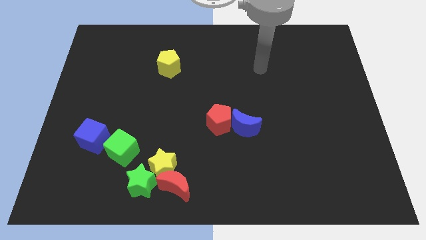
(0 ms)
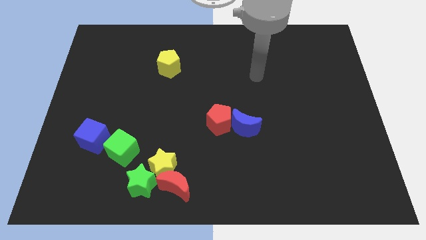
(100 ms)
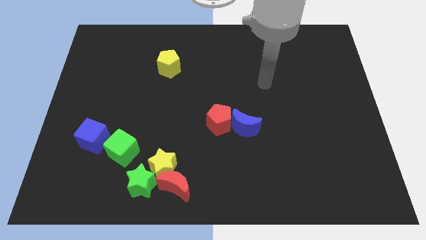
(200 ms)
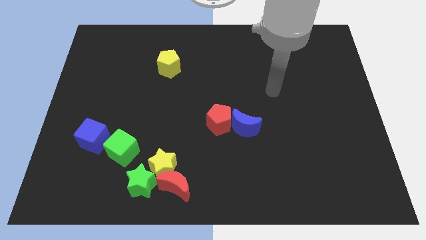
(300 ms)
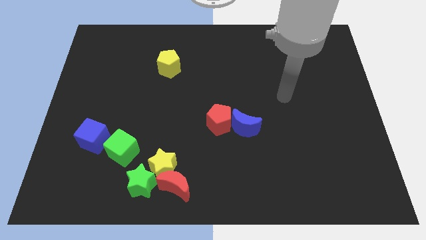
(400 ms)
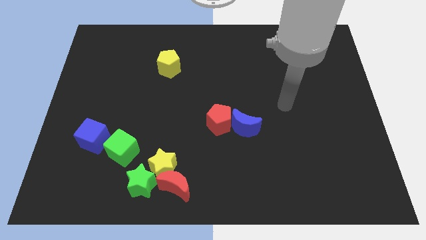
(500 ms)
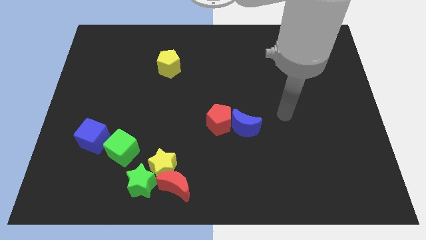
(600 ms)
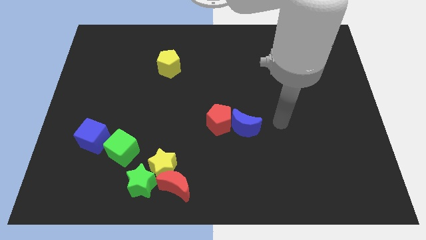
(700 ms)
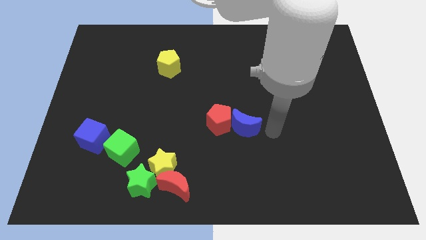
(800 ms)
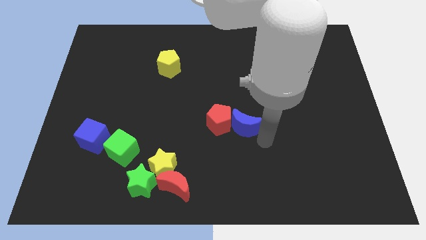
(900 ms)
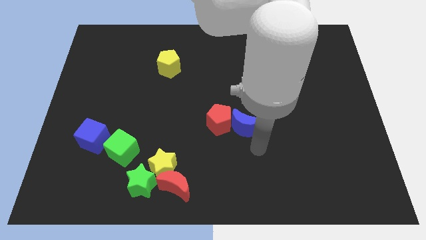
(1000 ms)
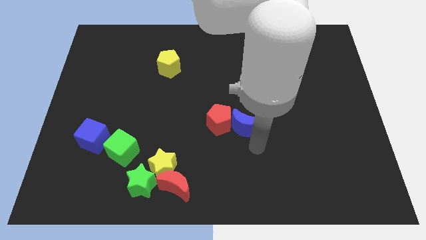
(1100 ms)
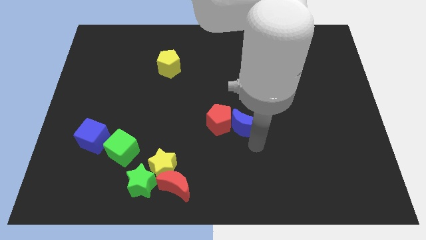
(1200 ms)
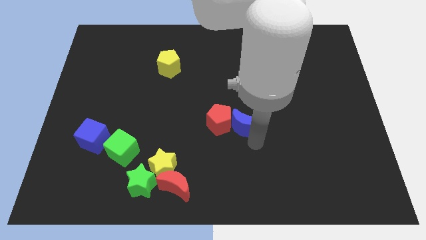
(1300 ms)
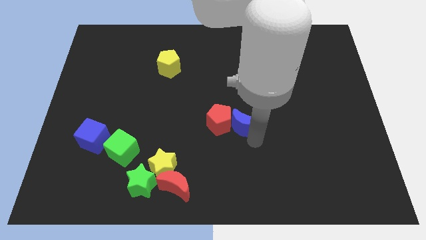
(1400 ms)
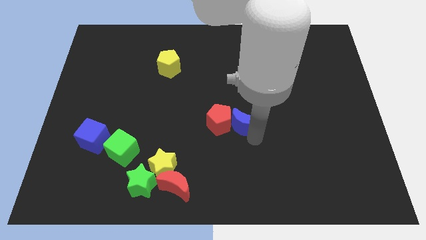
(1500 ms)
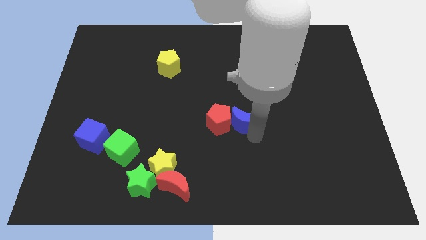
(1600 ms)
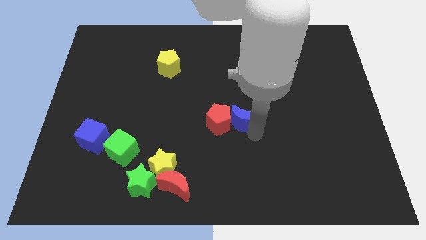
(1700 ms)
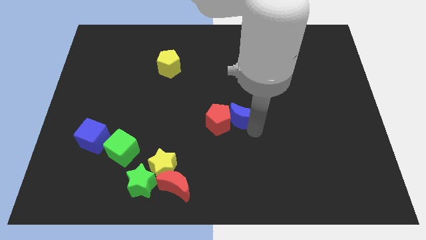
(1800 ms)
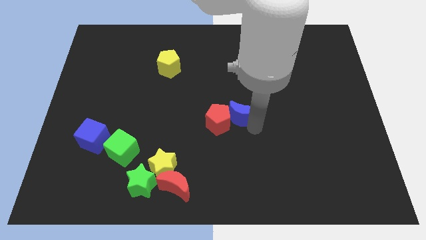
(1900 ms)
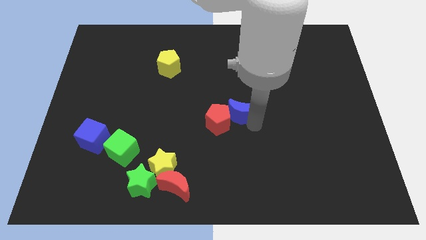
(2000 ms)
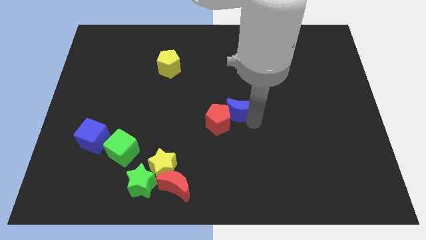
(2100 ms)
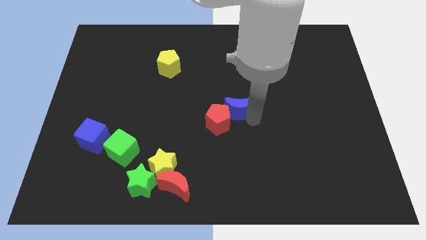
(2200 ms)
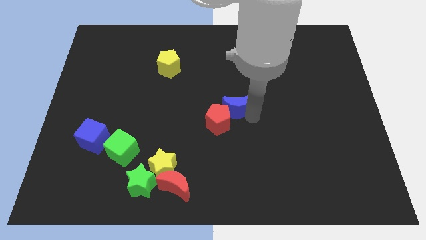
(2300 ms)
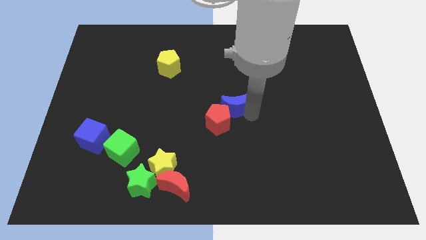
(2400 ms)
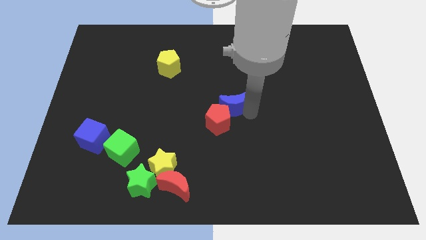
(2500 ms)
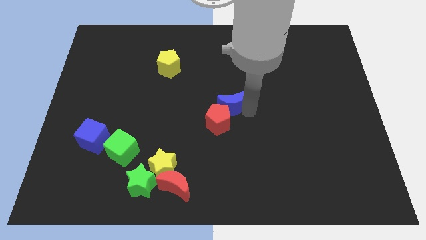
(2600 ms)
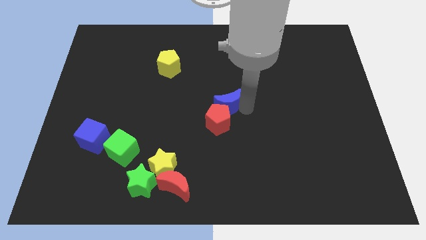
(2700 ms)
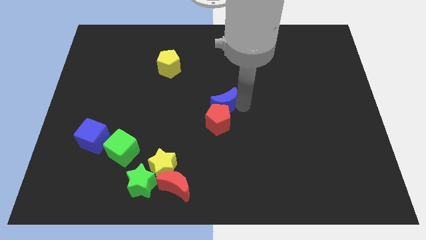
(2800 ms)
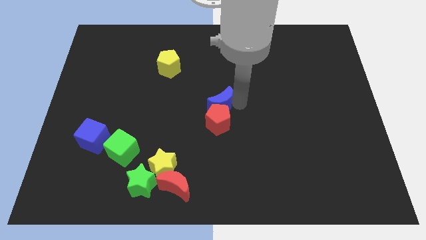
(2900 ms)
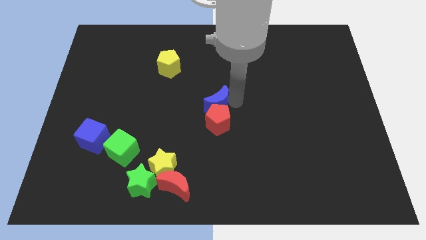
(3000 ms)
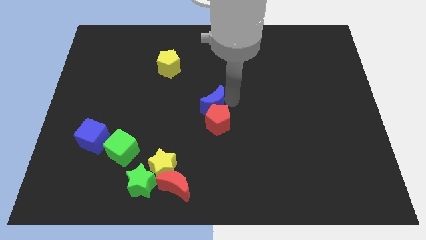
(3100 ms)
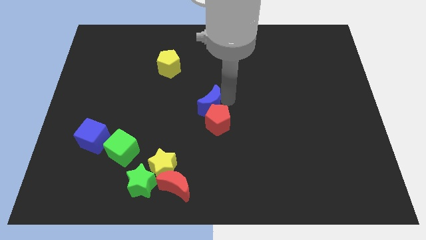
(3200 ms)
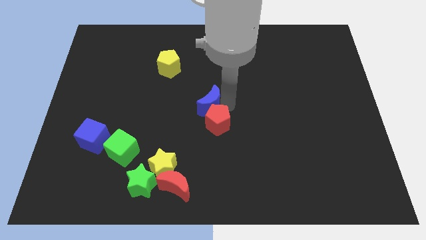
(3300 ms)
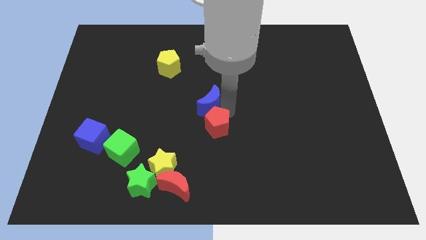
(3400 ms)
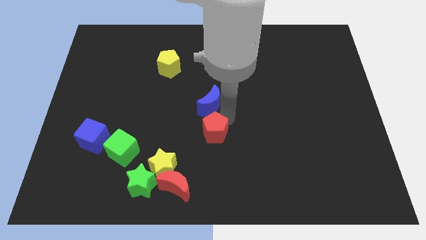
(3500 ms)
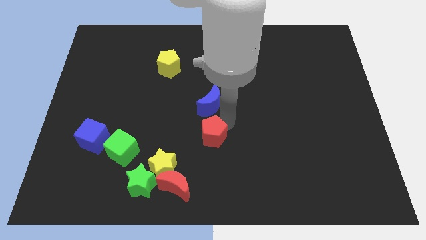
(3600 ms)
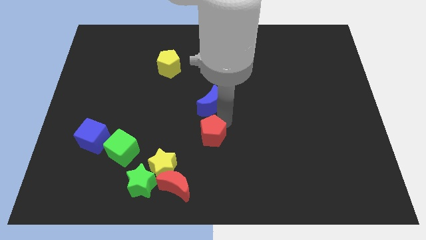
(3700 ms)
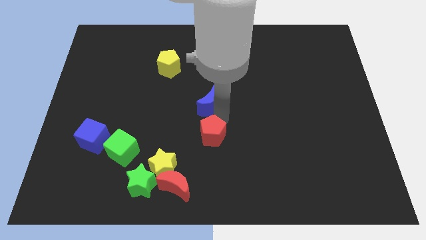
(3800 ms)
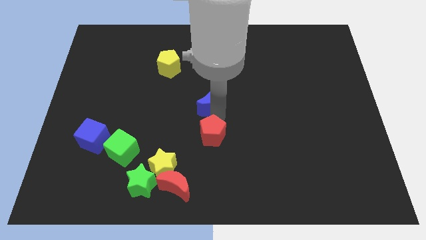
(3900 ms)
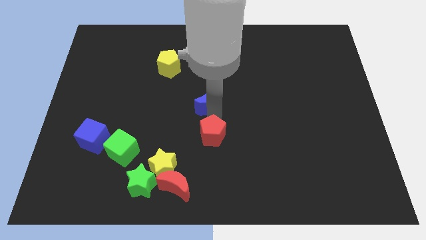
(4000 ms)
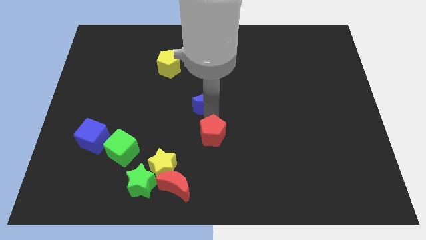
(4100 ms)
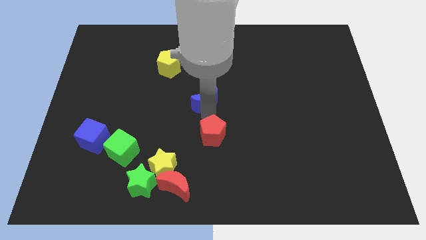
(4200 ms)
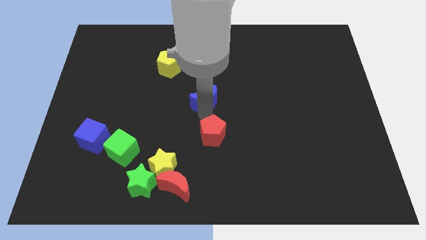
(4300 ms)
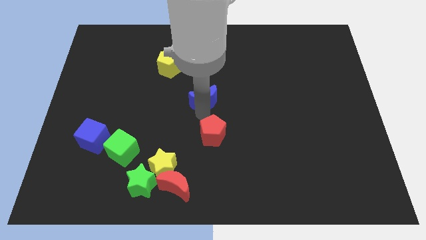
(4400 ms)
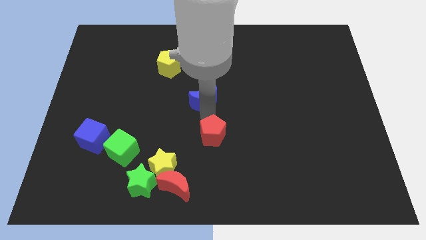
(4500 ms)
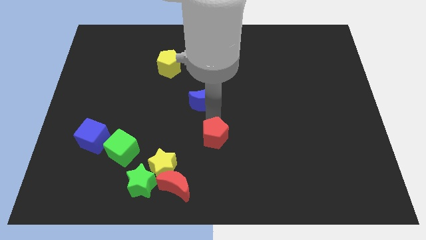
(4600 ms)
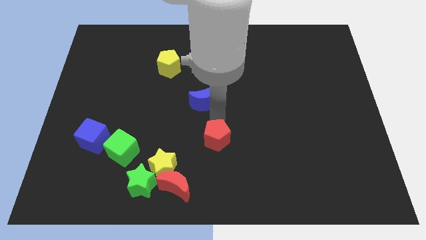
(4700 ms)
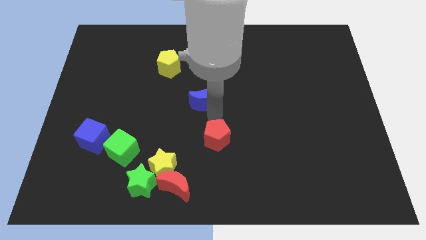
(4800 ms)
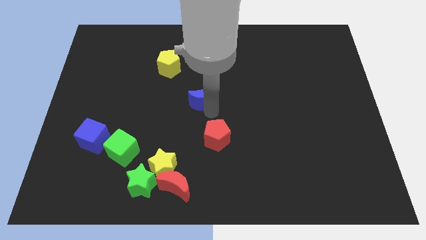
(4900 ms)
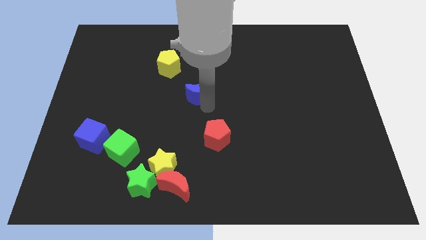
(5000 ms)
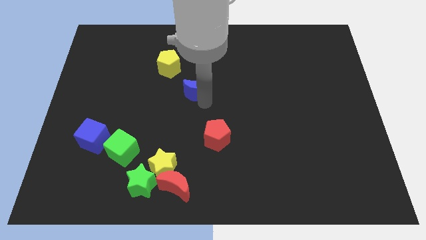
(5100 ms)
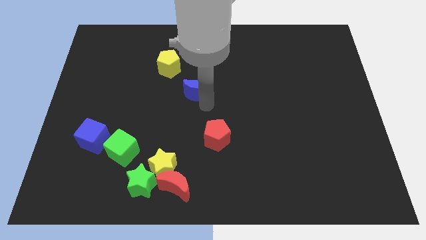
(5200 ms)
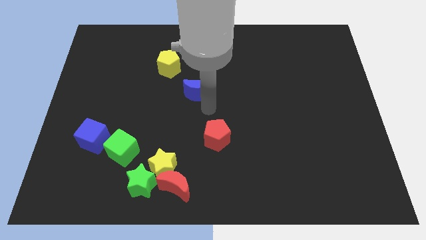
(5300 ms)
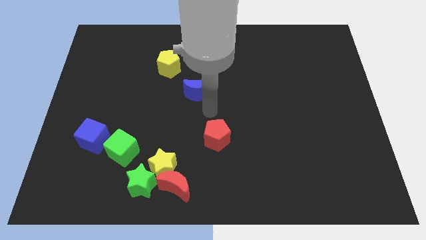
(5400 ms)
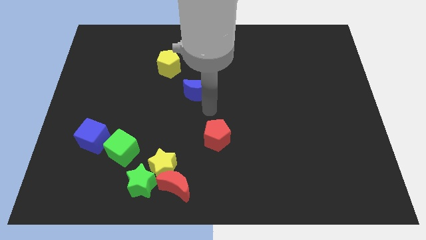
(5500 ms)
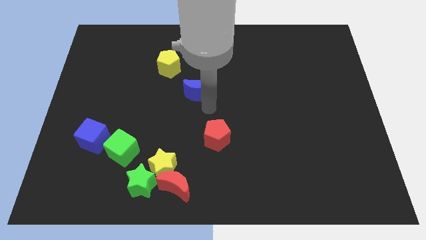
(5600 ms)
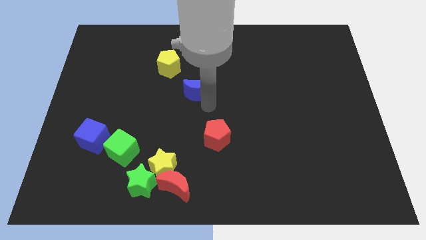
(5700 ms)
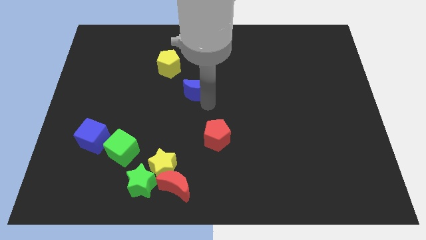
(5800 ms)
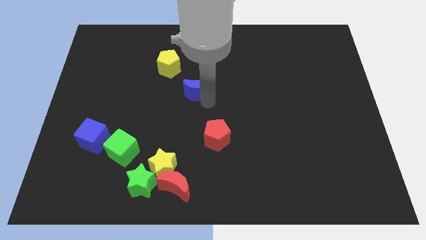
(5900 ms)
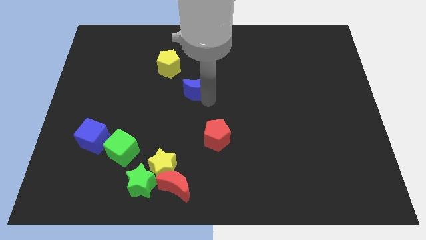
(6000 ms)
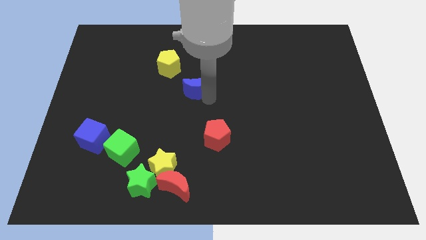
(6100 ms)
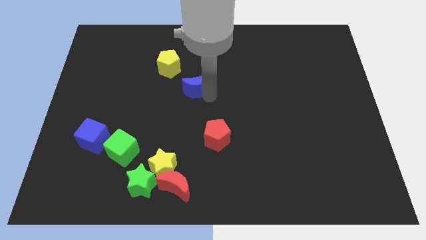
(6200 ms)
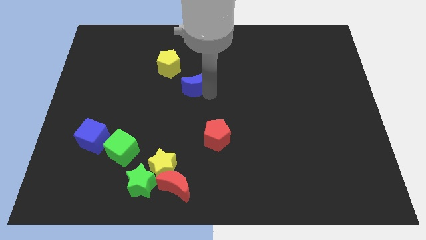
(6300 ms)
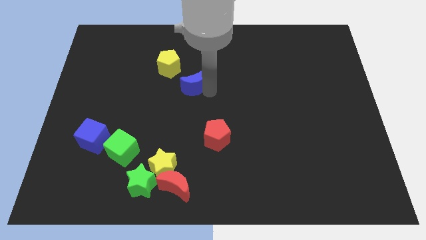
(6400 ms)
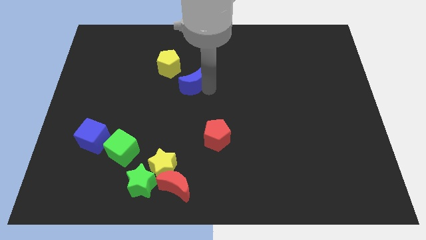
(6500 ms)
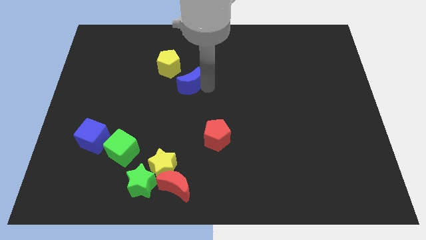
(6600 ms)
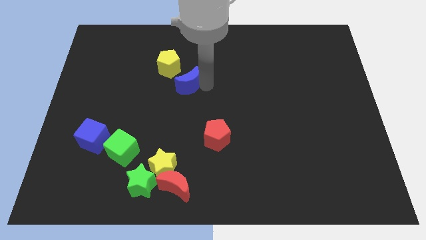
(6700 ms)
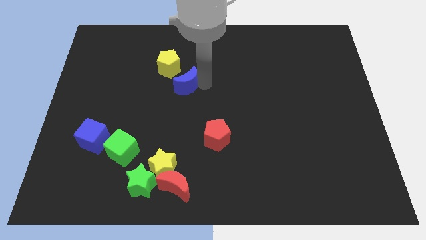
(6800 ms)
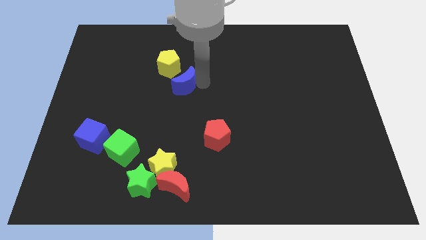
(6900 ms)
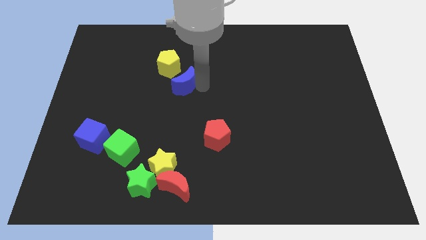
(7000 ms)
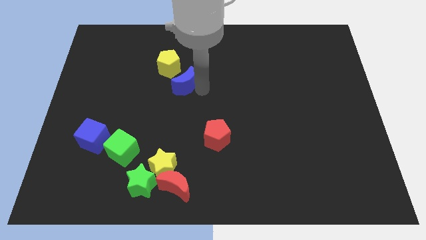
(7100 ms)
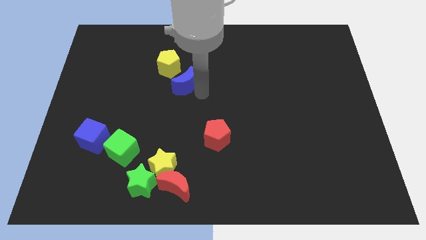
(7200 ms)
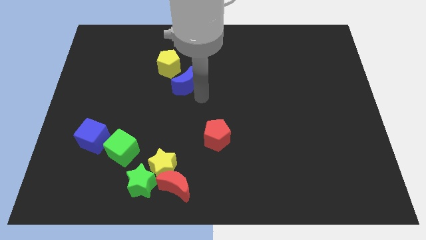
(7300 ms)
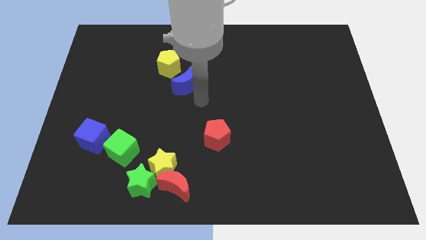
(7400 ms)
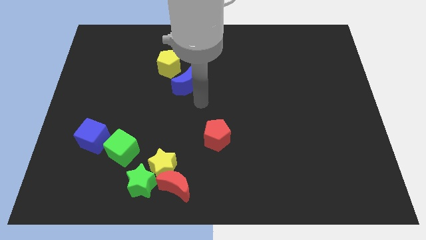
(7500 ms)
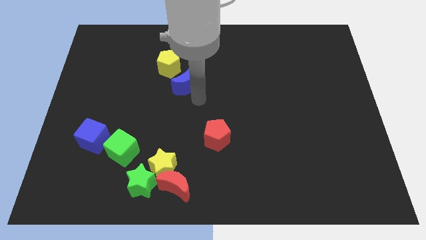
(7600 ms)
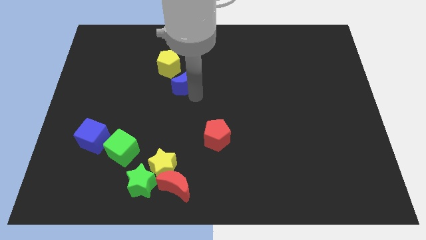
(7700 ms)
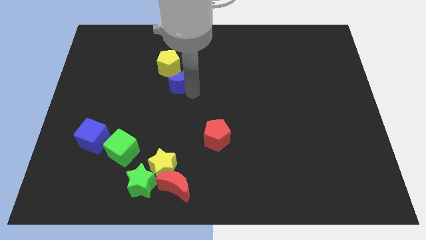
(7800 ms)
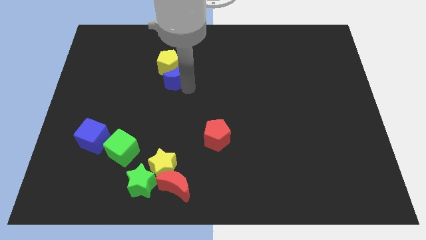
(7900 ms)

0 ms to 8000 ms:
move the blue moon close to the yellow pentagon
